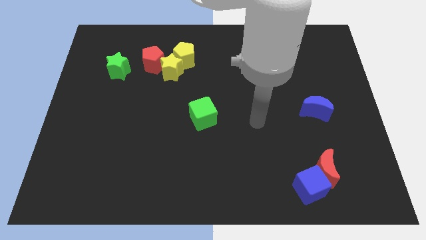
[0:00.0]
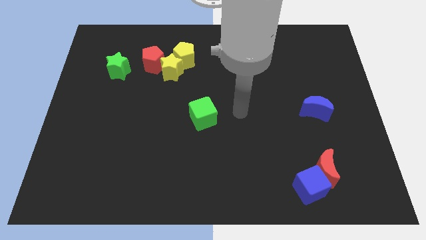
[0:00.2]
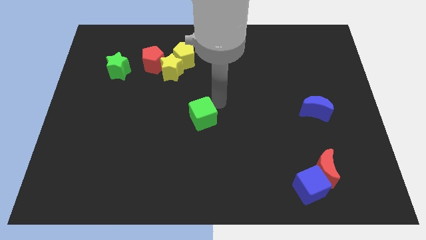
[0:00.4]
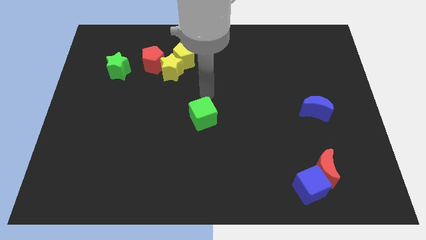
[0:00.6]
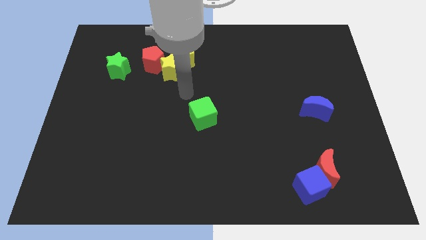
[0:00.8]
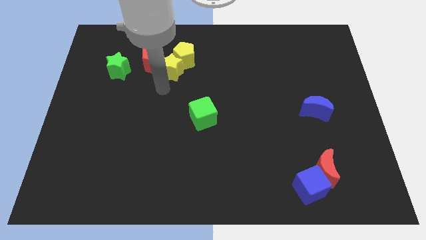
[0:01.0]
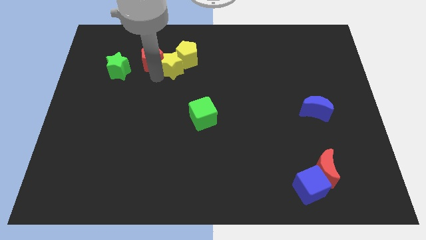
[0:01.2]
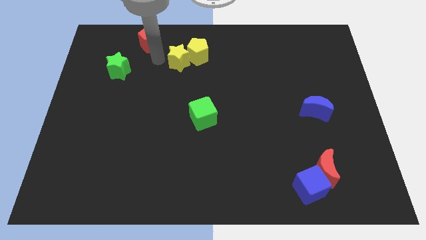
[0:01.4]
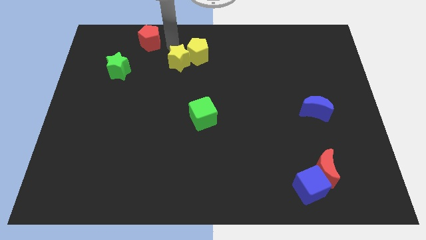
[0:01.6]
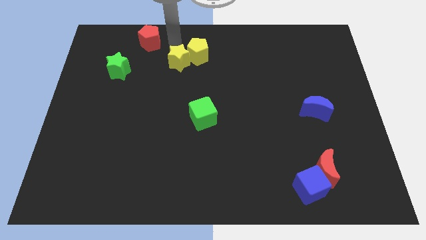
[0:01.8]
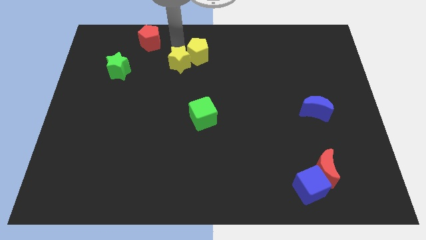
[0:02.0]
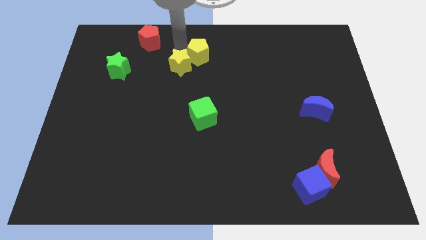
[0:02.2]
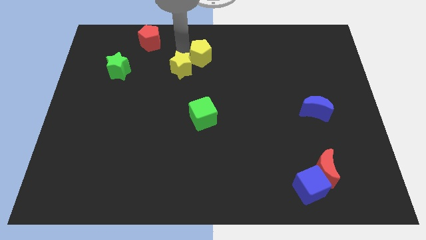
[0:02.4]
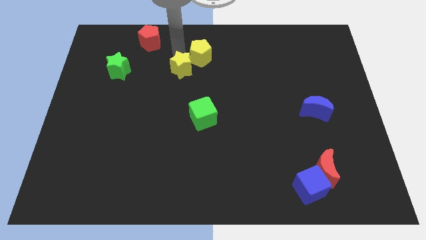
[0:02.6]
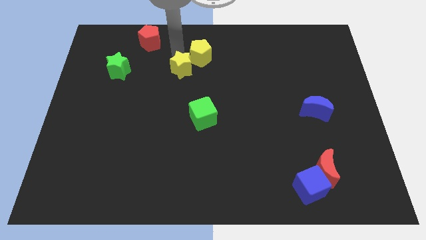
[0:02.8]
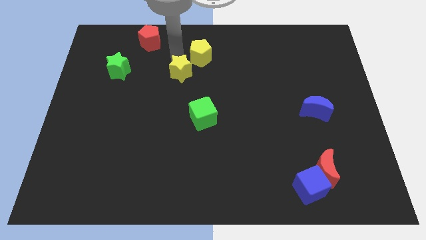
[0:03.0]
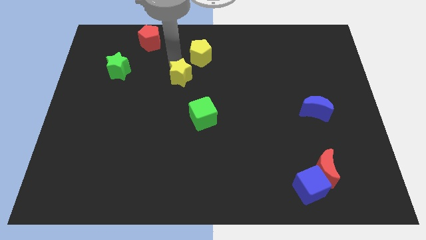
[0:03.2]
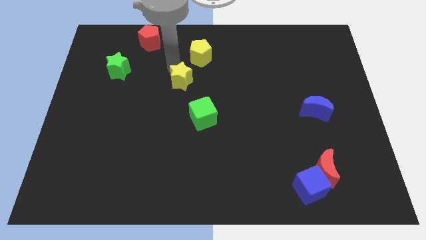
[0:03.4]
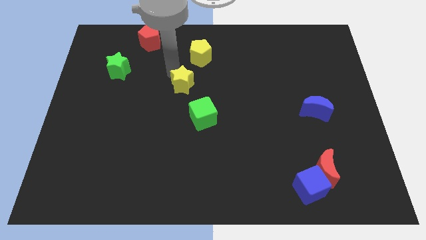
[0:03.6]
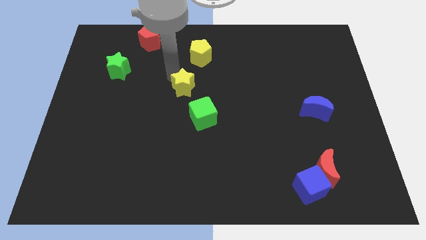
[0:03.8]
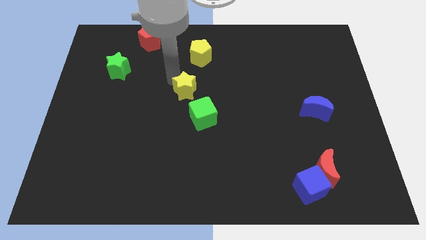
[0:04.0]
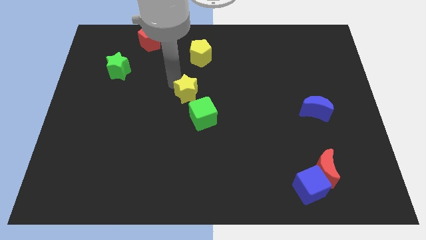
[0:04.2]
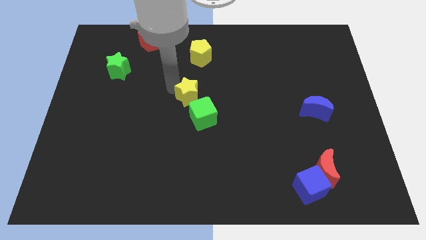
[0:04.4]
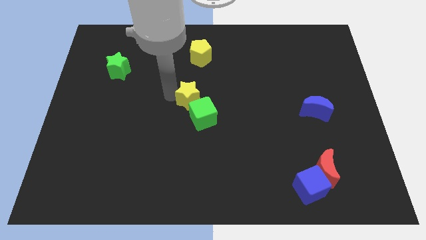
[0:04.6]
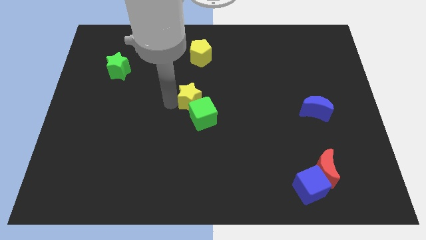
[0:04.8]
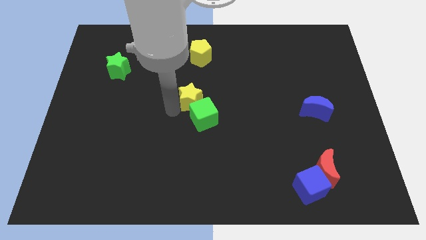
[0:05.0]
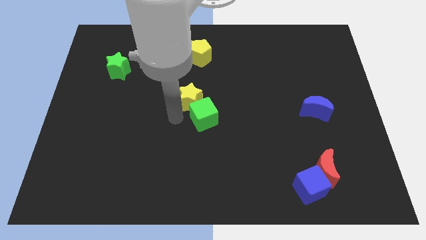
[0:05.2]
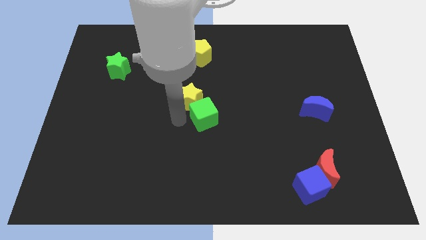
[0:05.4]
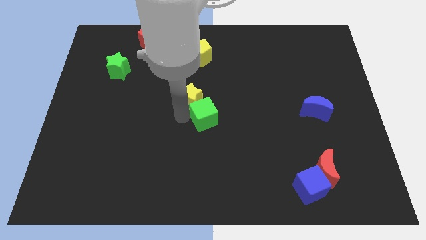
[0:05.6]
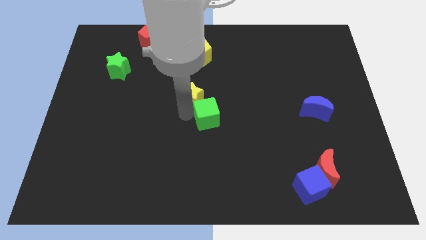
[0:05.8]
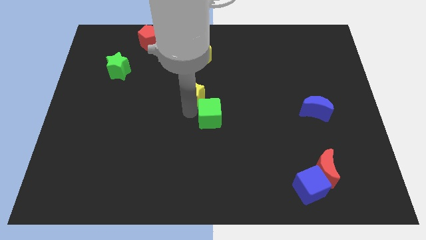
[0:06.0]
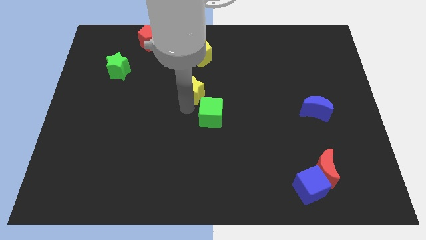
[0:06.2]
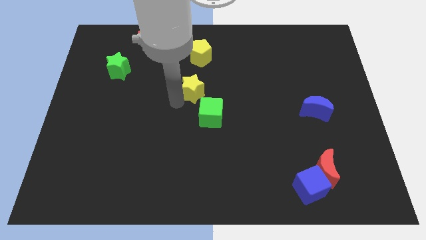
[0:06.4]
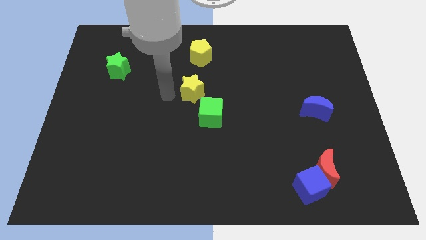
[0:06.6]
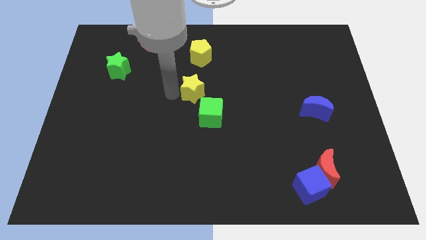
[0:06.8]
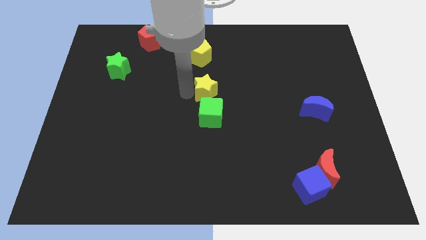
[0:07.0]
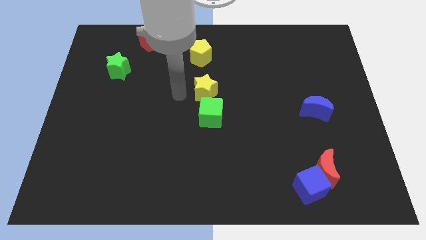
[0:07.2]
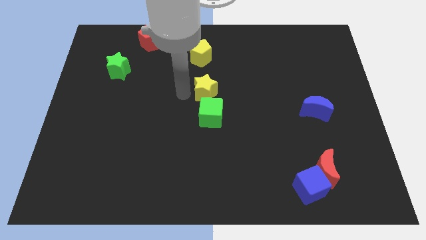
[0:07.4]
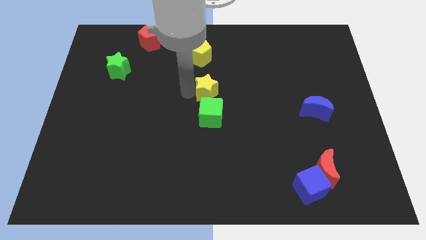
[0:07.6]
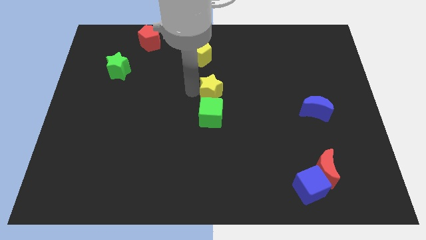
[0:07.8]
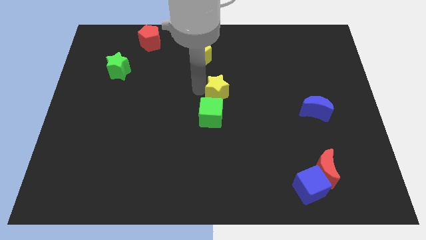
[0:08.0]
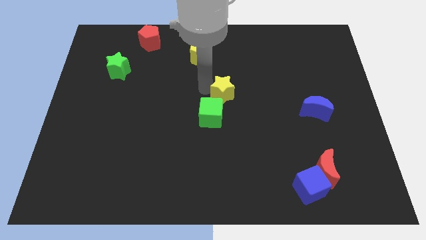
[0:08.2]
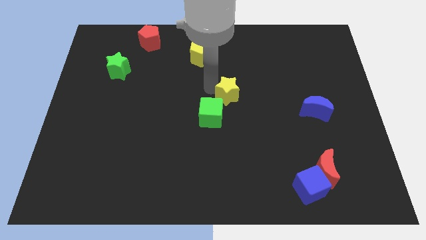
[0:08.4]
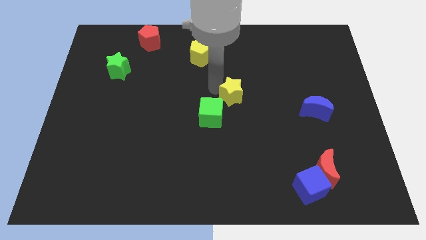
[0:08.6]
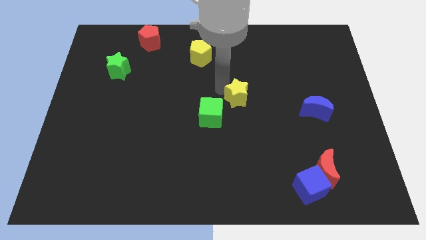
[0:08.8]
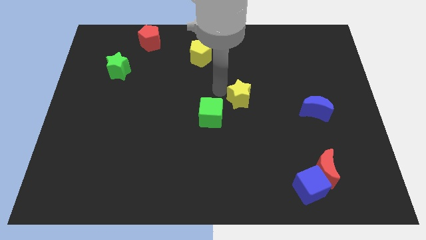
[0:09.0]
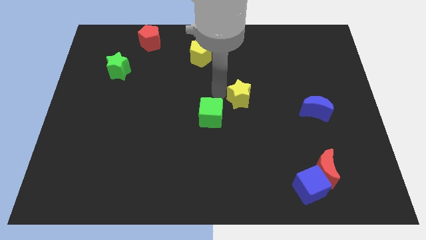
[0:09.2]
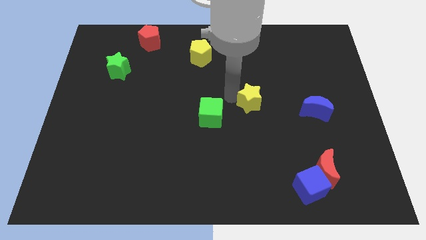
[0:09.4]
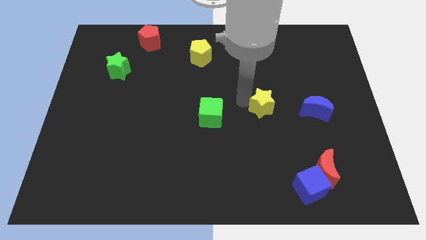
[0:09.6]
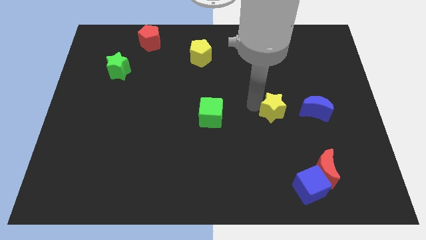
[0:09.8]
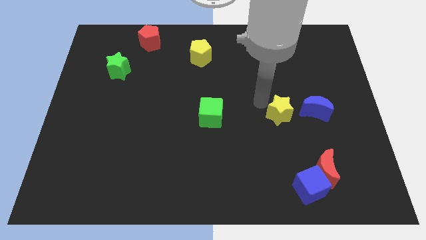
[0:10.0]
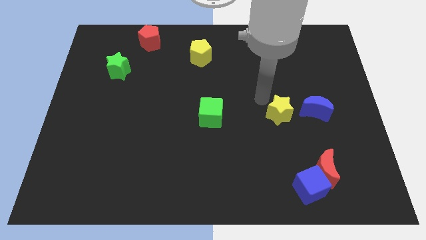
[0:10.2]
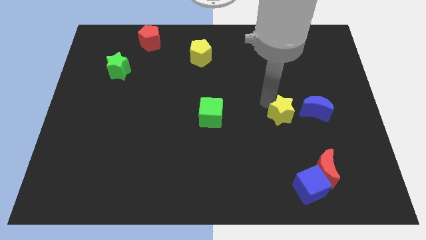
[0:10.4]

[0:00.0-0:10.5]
put the yellow star to the bottom left of the blue moon

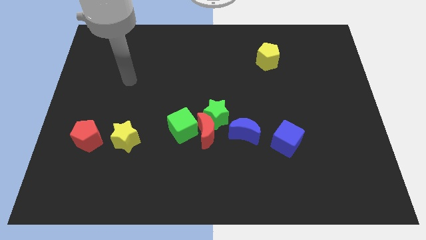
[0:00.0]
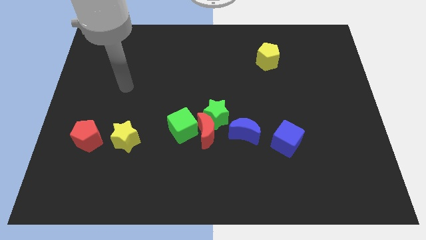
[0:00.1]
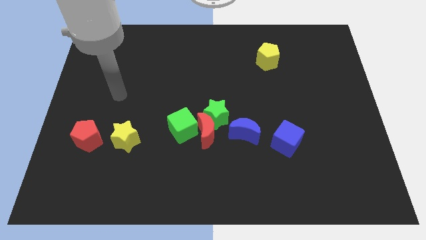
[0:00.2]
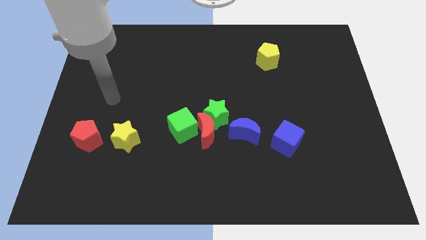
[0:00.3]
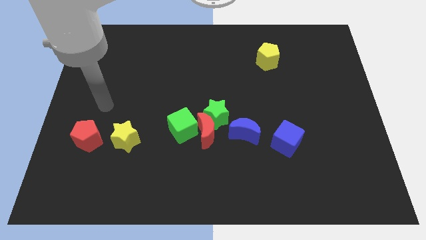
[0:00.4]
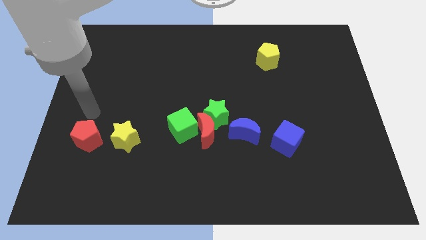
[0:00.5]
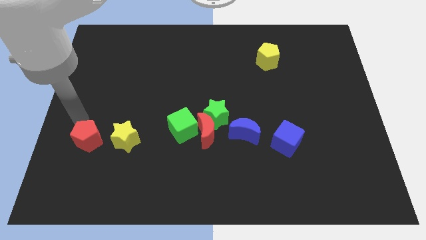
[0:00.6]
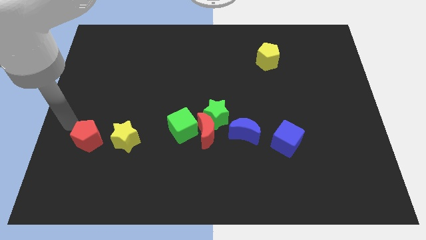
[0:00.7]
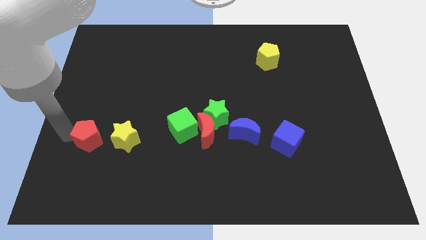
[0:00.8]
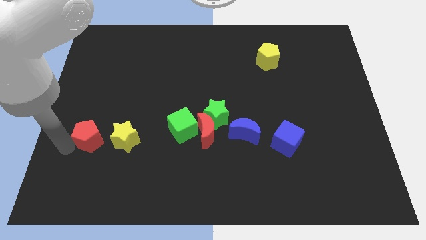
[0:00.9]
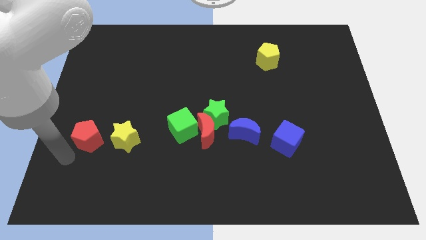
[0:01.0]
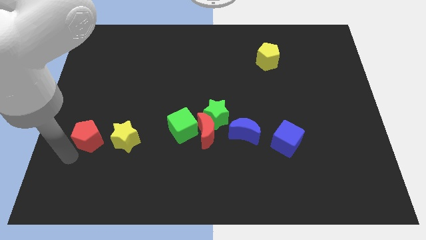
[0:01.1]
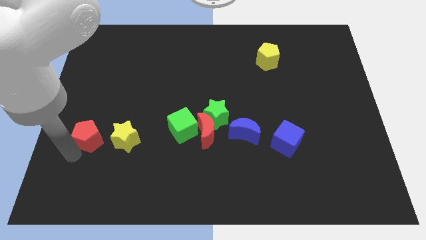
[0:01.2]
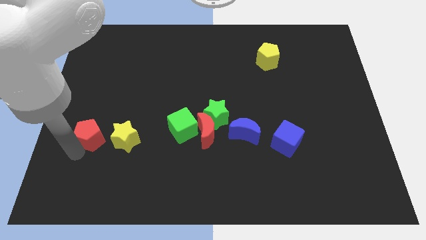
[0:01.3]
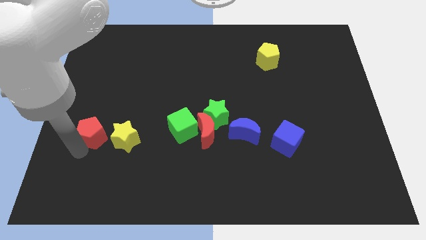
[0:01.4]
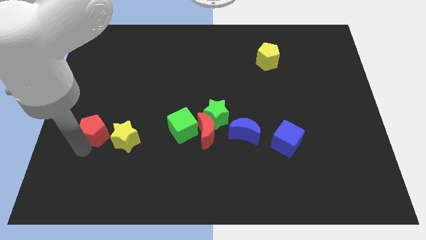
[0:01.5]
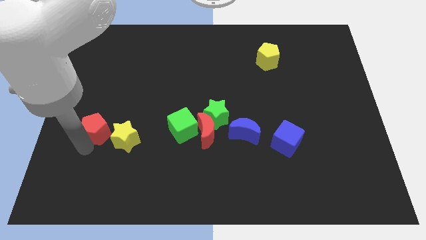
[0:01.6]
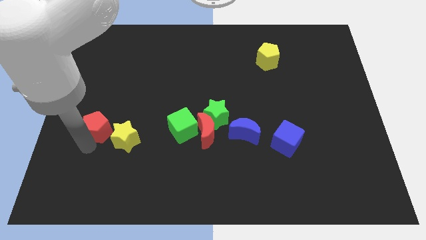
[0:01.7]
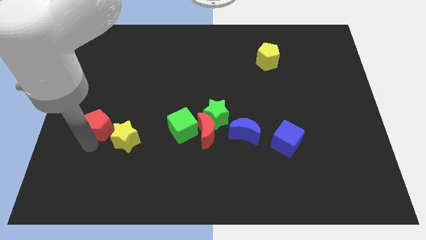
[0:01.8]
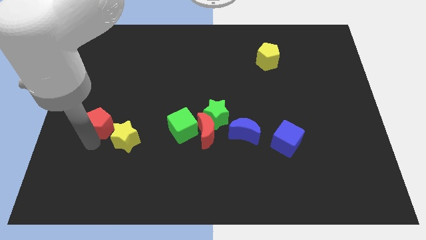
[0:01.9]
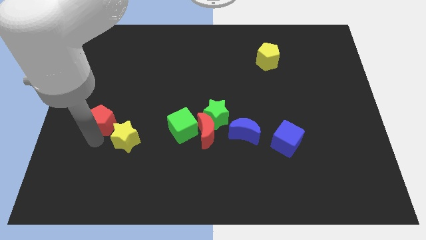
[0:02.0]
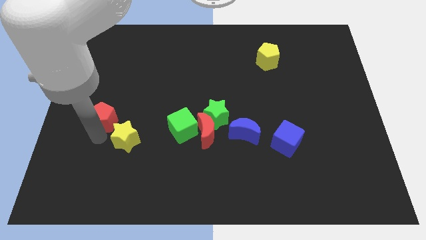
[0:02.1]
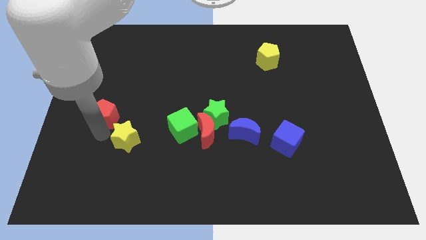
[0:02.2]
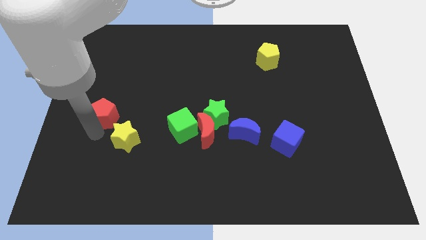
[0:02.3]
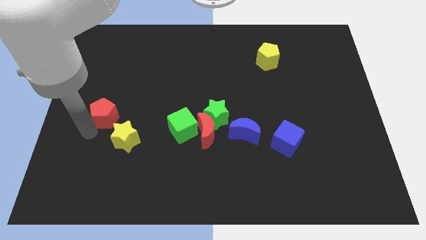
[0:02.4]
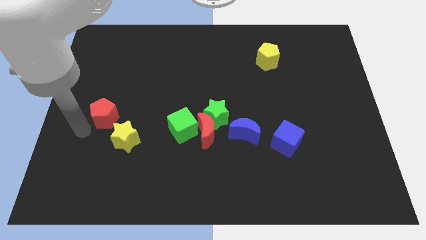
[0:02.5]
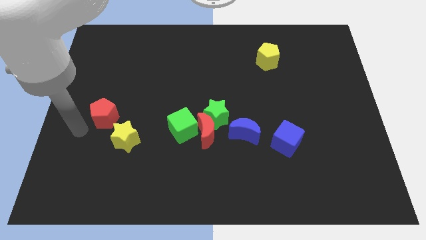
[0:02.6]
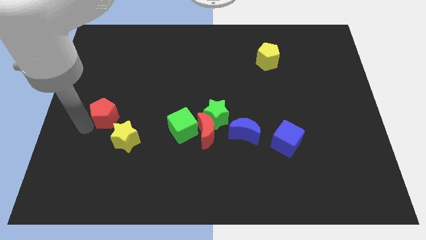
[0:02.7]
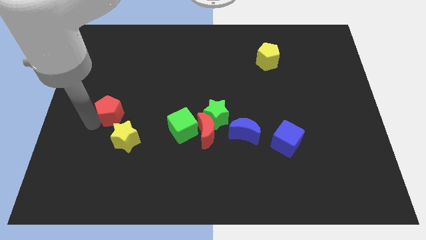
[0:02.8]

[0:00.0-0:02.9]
slide the red pentagon to the top side of the yellow star
